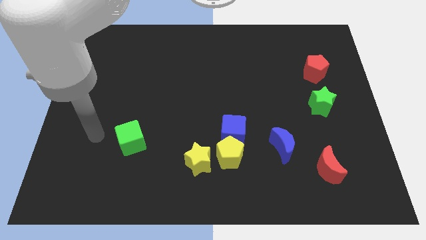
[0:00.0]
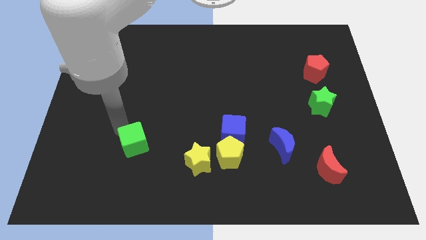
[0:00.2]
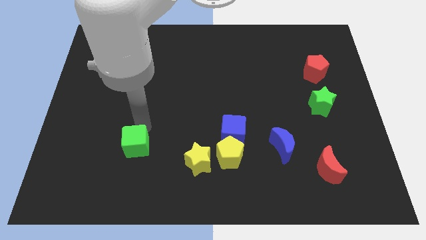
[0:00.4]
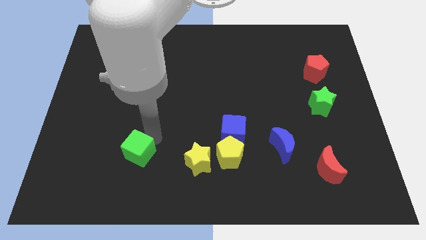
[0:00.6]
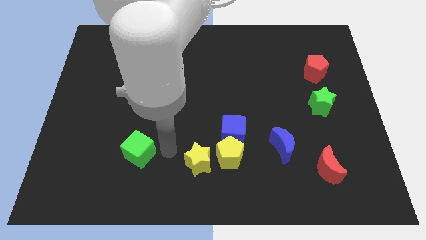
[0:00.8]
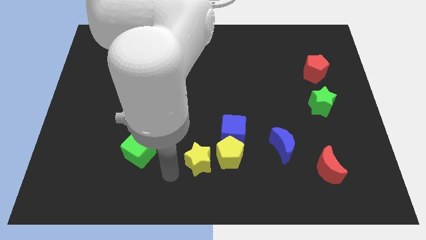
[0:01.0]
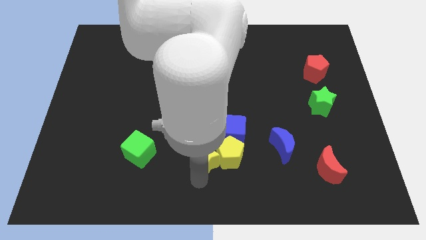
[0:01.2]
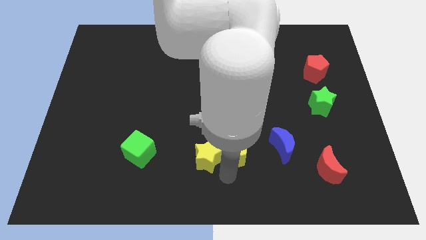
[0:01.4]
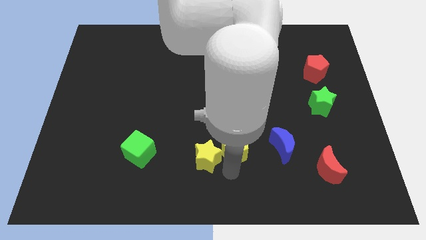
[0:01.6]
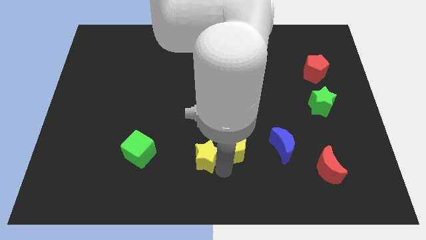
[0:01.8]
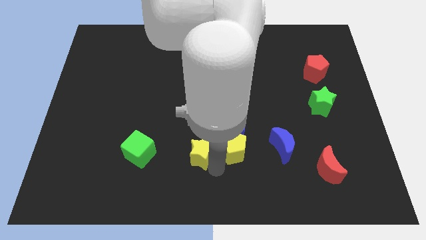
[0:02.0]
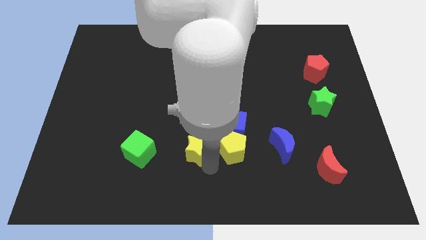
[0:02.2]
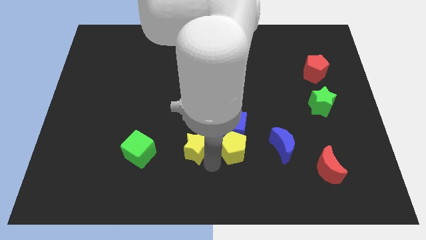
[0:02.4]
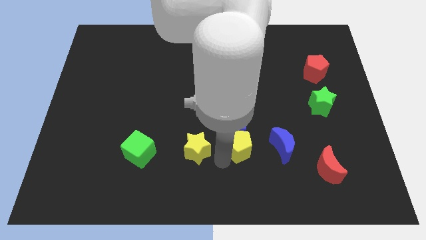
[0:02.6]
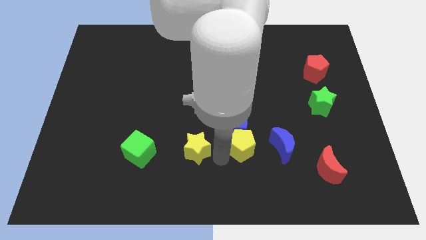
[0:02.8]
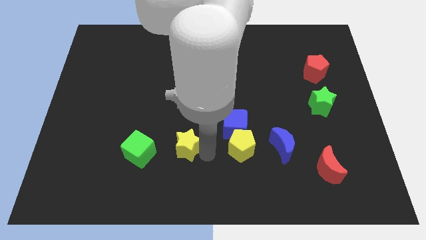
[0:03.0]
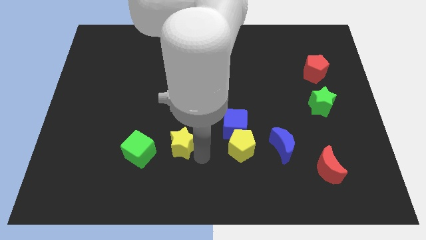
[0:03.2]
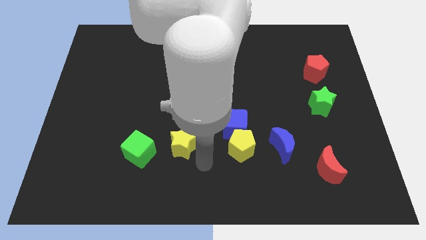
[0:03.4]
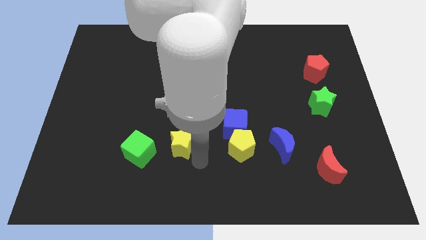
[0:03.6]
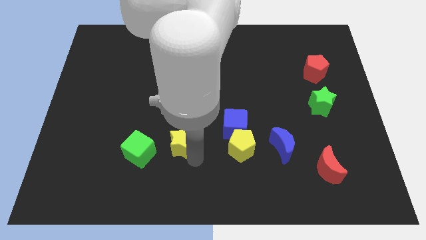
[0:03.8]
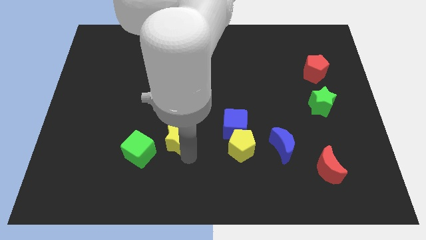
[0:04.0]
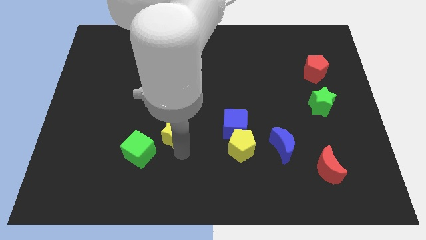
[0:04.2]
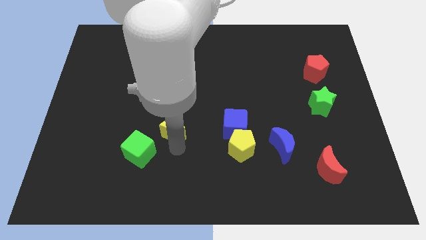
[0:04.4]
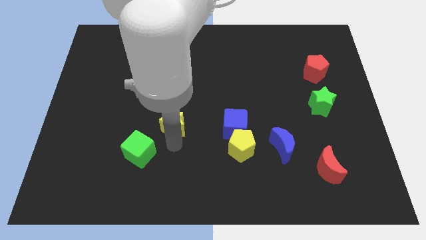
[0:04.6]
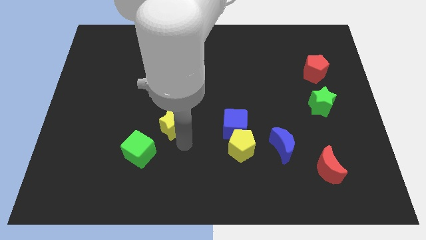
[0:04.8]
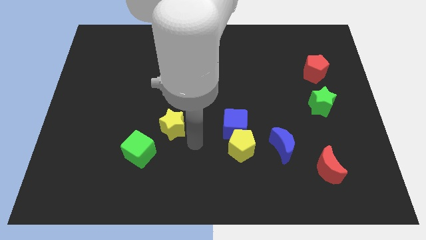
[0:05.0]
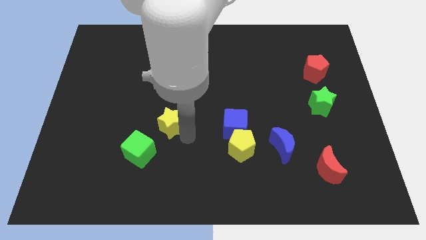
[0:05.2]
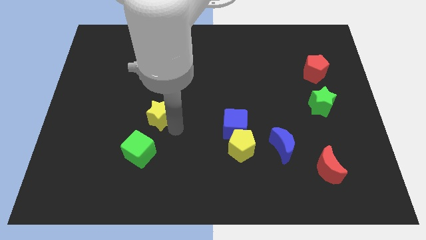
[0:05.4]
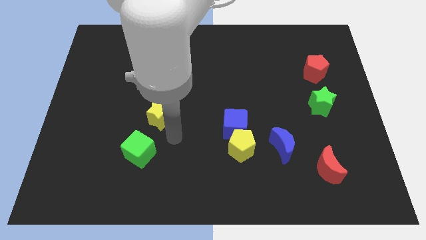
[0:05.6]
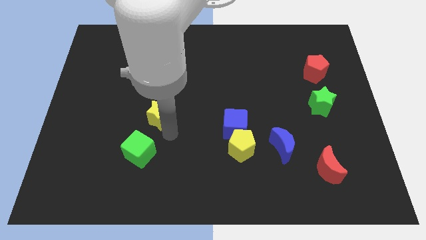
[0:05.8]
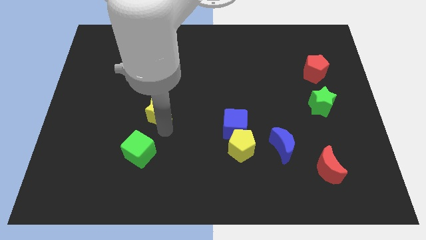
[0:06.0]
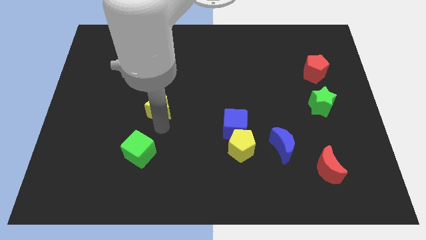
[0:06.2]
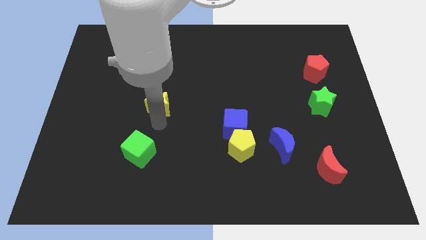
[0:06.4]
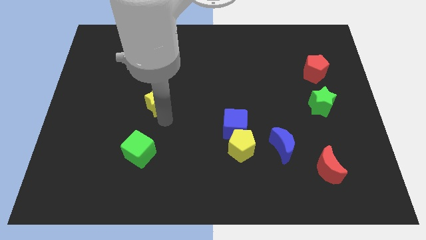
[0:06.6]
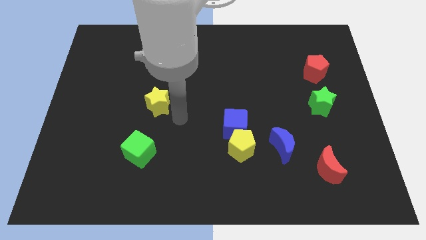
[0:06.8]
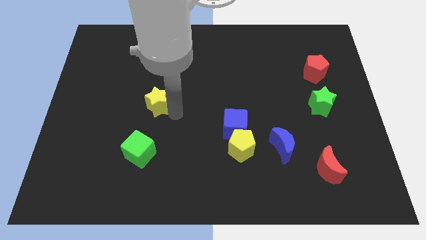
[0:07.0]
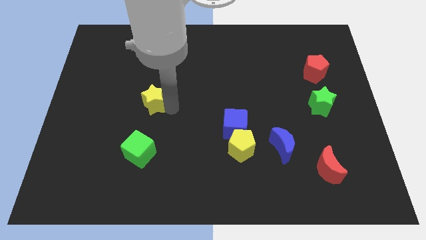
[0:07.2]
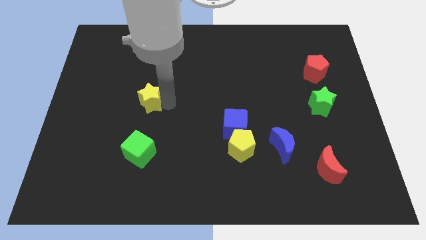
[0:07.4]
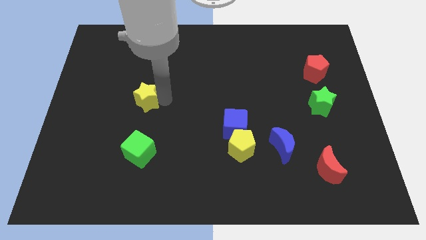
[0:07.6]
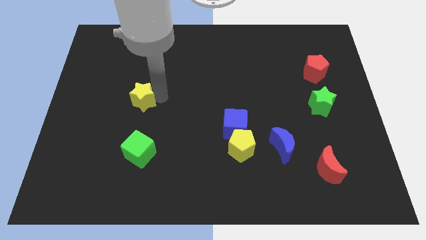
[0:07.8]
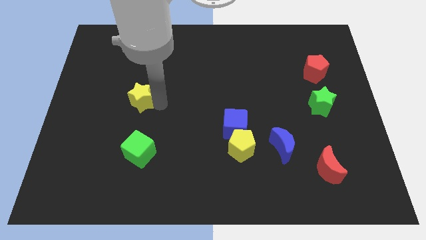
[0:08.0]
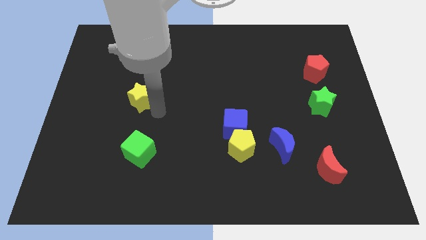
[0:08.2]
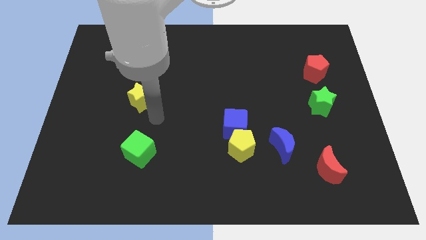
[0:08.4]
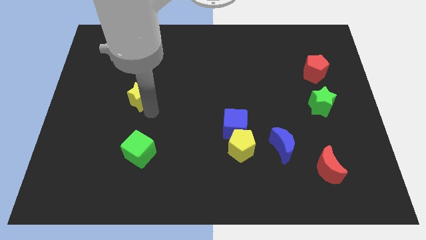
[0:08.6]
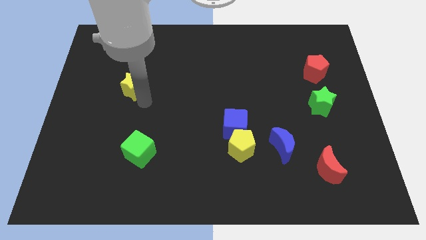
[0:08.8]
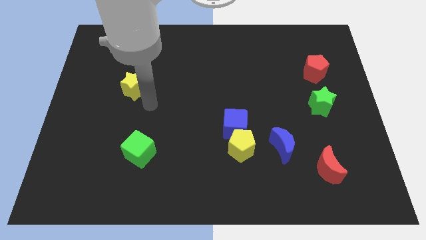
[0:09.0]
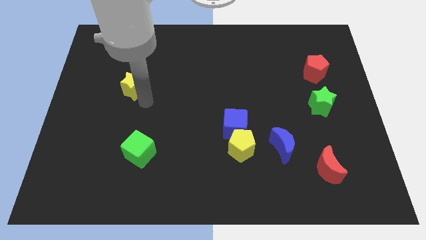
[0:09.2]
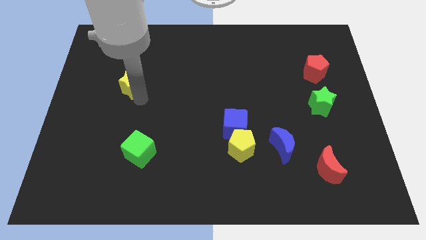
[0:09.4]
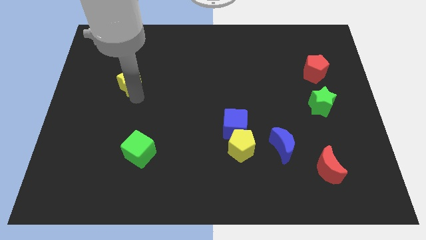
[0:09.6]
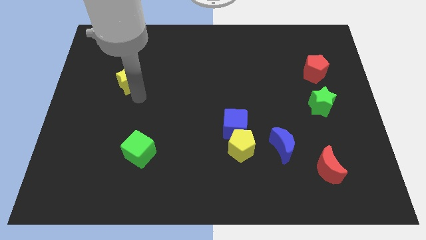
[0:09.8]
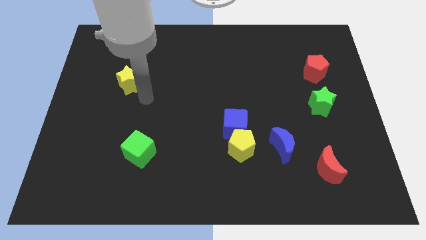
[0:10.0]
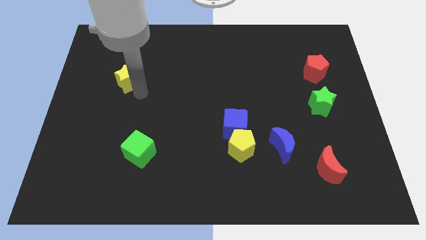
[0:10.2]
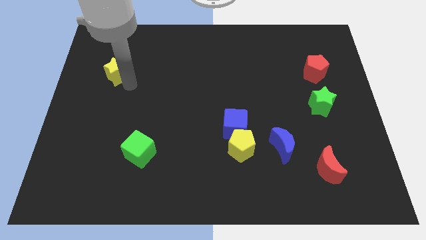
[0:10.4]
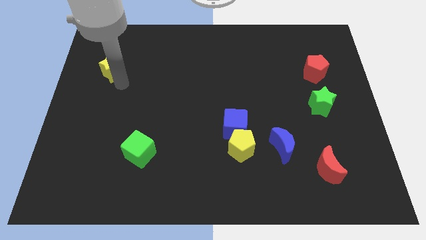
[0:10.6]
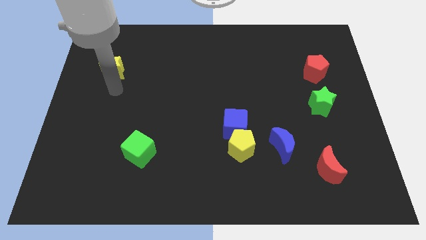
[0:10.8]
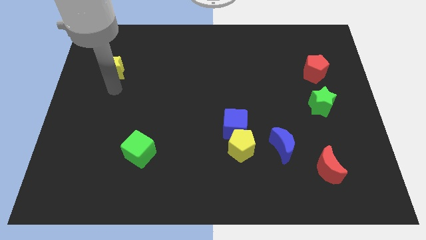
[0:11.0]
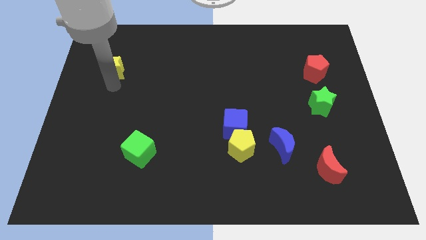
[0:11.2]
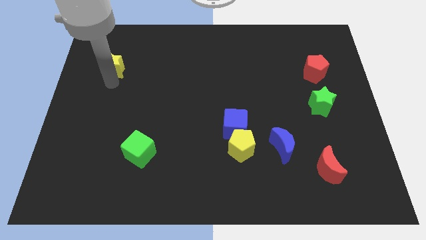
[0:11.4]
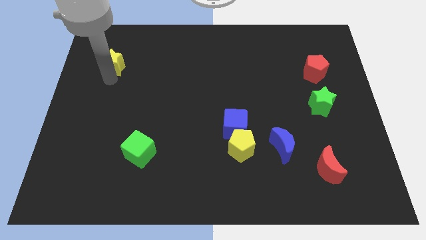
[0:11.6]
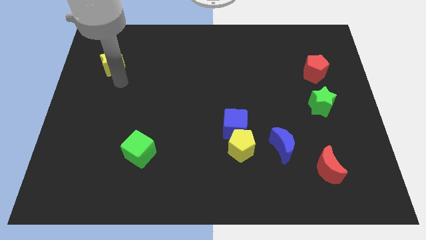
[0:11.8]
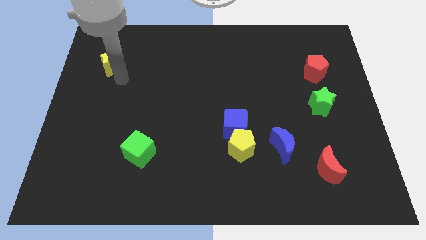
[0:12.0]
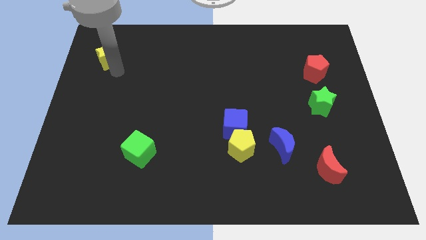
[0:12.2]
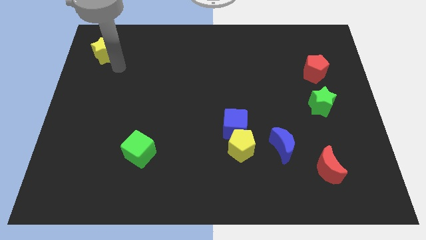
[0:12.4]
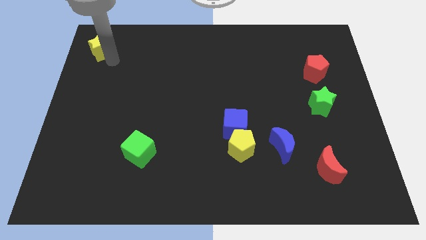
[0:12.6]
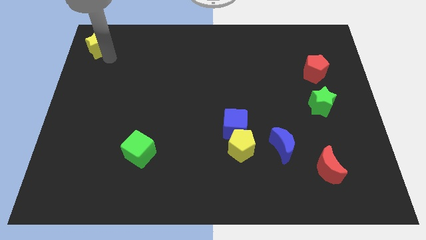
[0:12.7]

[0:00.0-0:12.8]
put the yellow star to the top left of the board
